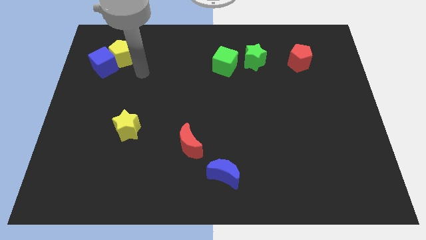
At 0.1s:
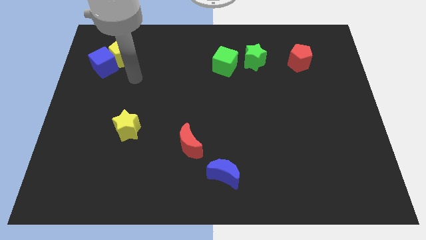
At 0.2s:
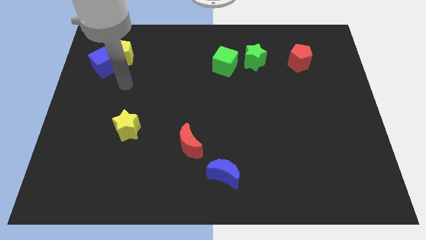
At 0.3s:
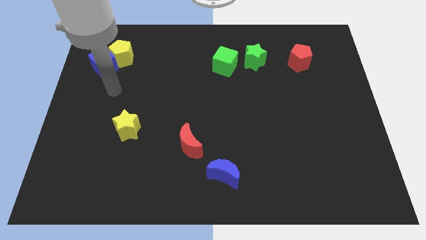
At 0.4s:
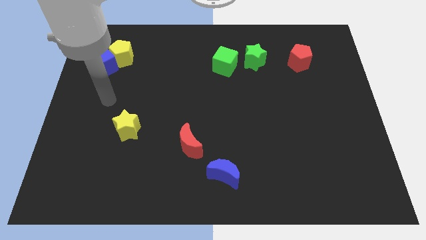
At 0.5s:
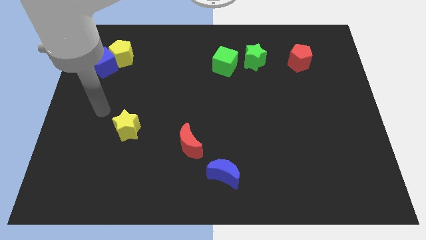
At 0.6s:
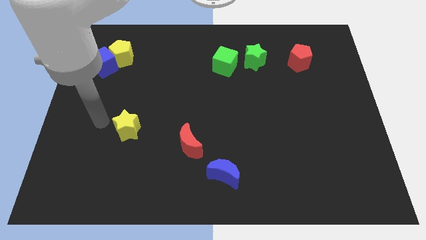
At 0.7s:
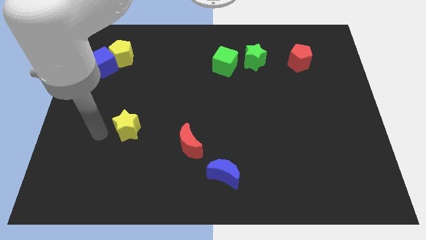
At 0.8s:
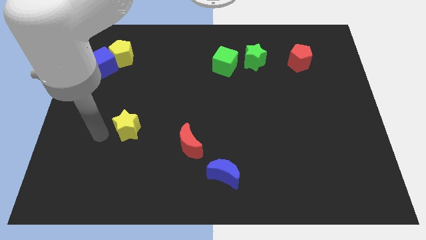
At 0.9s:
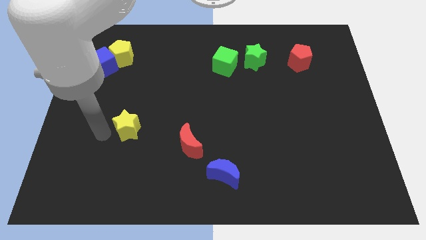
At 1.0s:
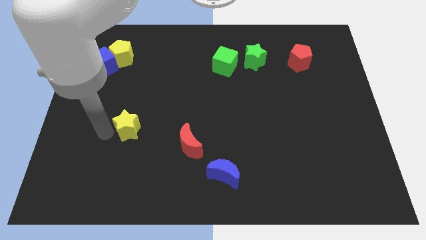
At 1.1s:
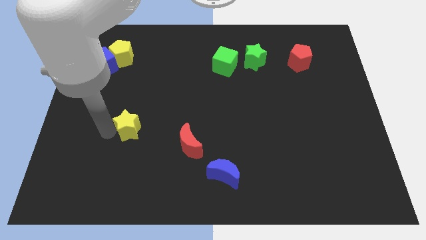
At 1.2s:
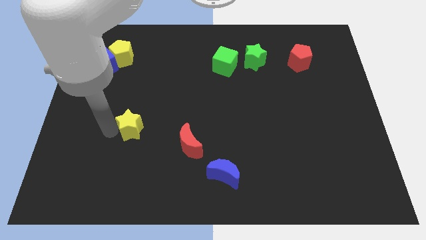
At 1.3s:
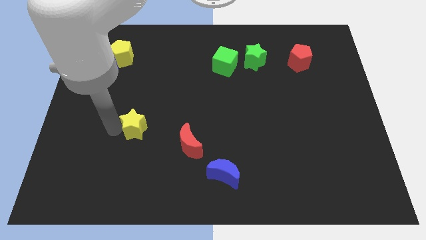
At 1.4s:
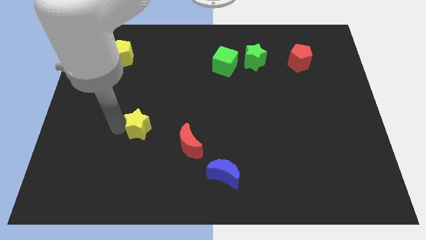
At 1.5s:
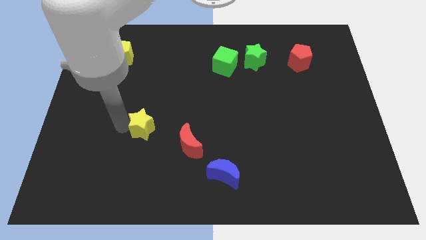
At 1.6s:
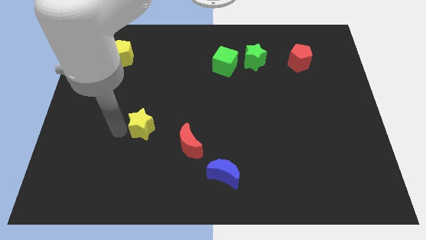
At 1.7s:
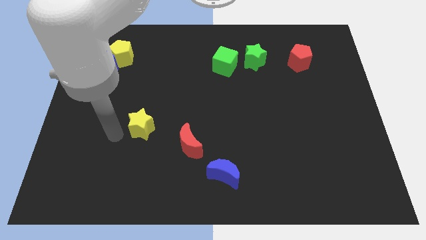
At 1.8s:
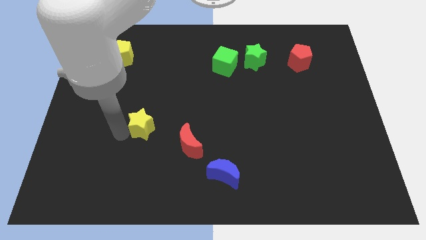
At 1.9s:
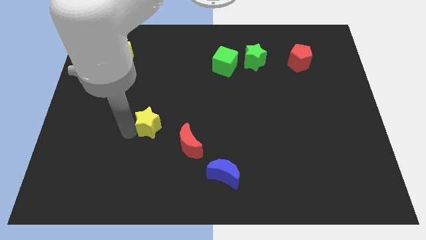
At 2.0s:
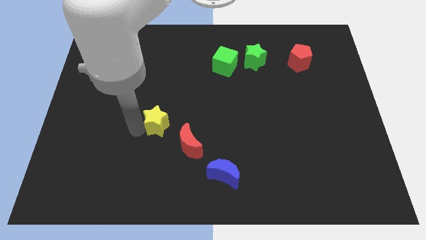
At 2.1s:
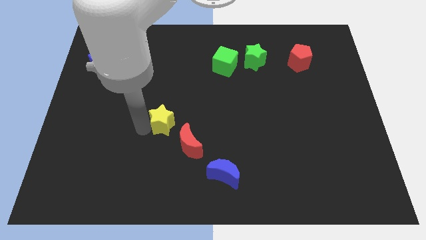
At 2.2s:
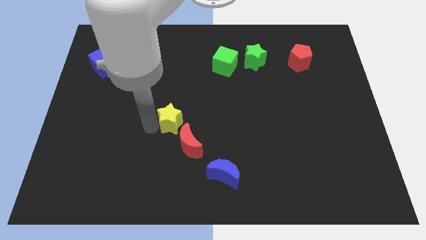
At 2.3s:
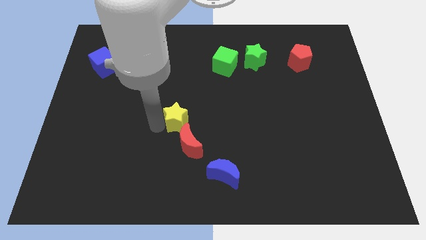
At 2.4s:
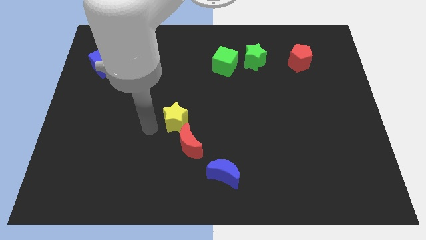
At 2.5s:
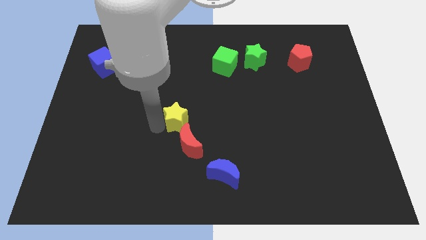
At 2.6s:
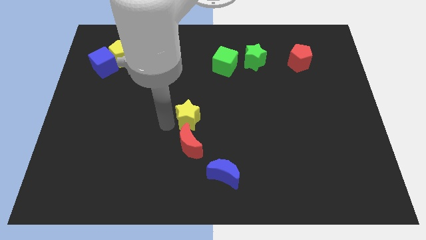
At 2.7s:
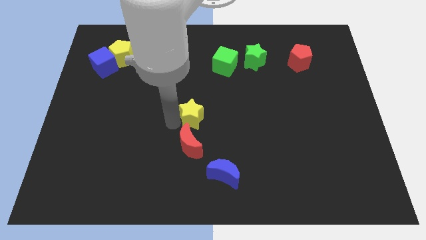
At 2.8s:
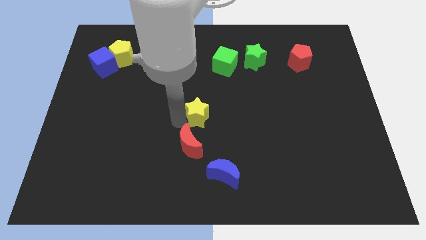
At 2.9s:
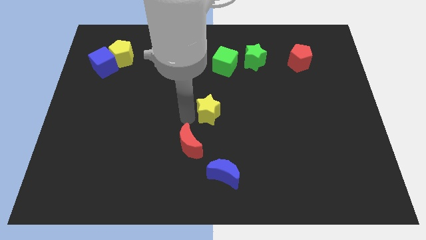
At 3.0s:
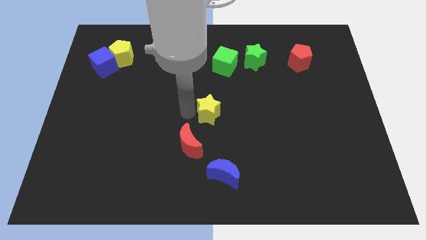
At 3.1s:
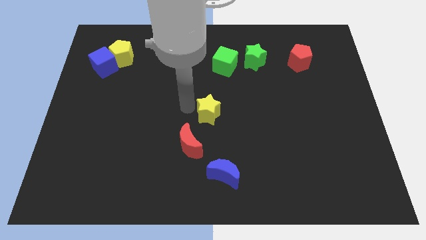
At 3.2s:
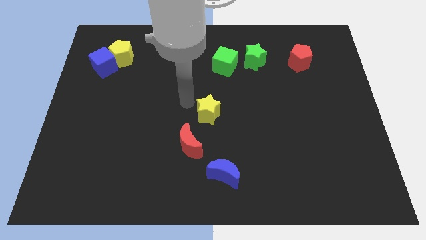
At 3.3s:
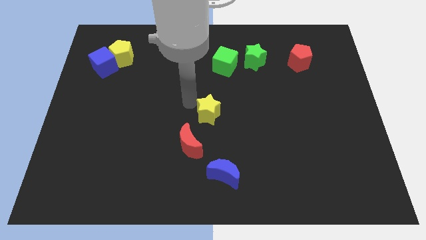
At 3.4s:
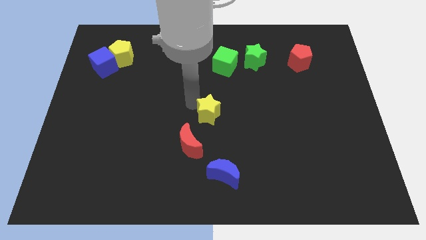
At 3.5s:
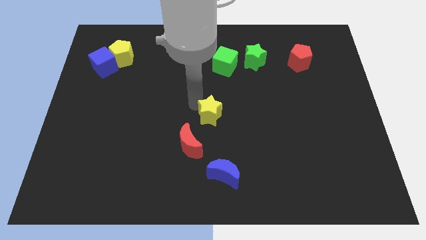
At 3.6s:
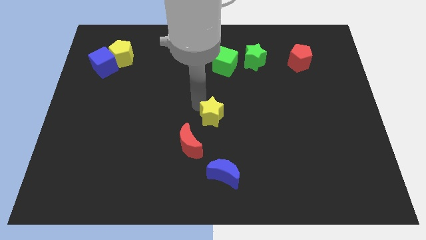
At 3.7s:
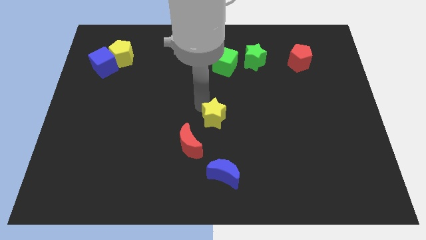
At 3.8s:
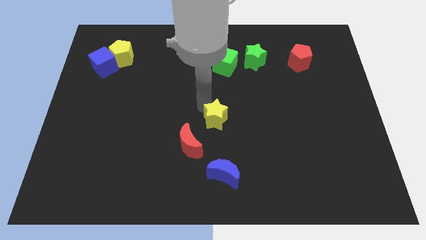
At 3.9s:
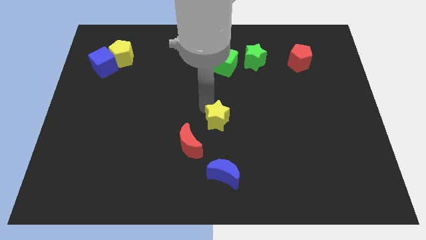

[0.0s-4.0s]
slide the yellow star to the right

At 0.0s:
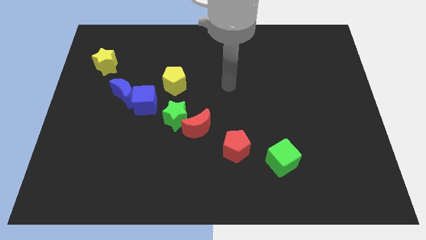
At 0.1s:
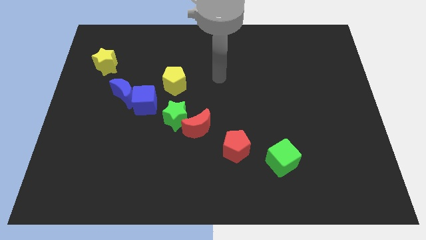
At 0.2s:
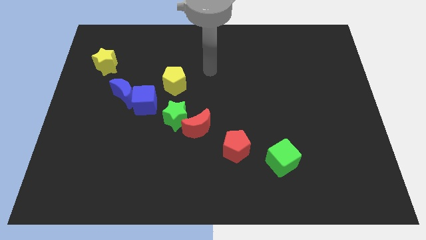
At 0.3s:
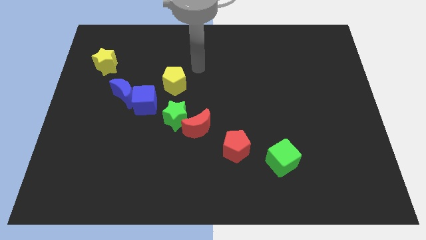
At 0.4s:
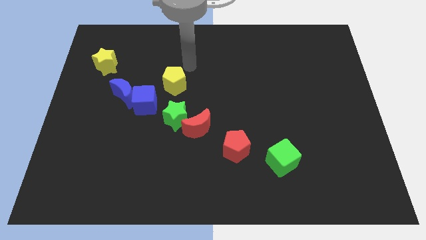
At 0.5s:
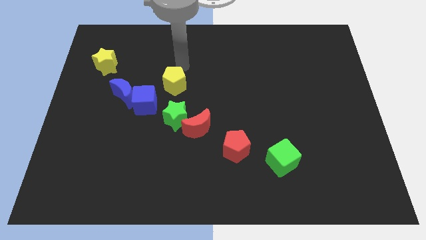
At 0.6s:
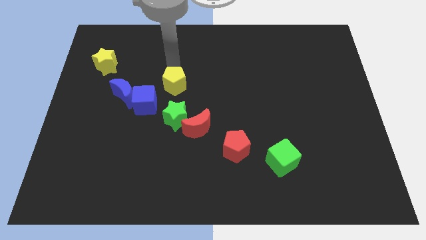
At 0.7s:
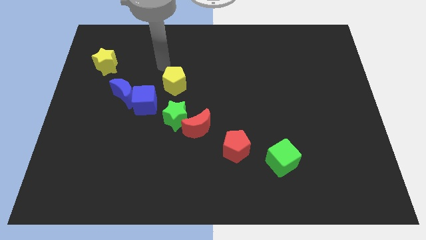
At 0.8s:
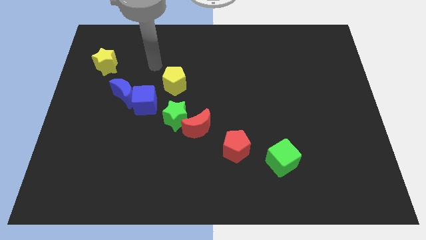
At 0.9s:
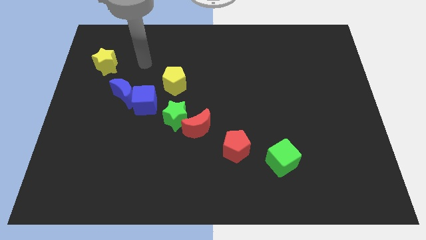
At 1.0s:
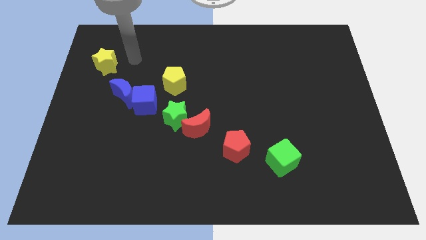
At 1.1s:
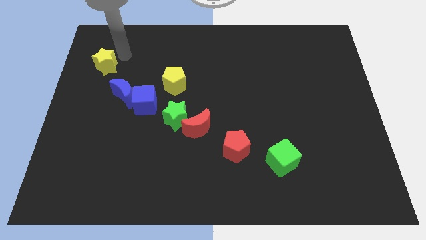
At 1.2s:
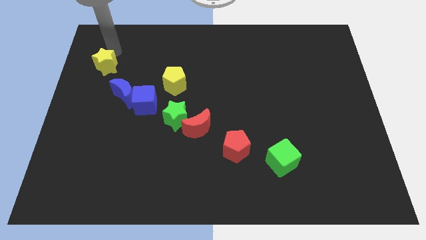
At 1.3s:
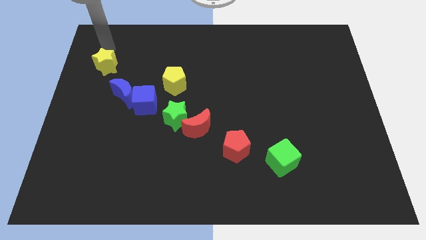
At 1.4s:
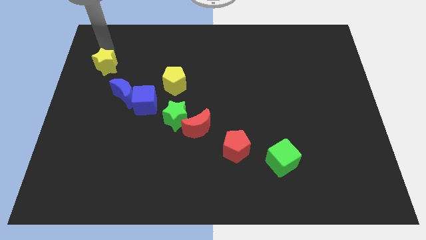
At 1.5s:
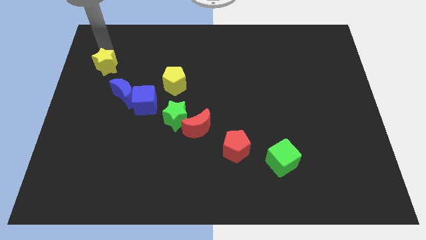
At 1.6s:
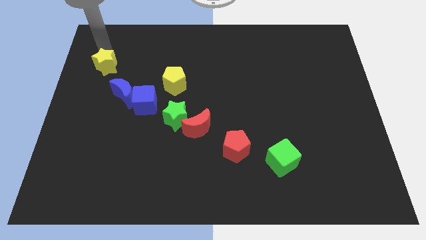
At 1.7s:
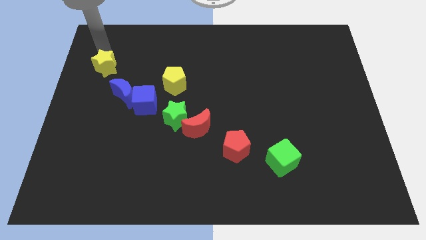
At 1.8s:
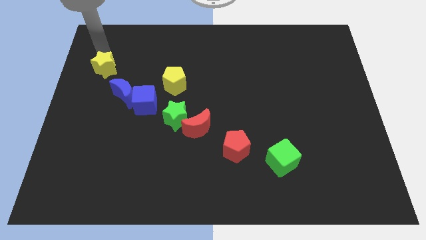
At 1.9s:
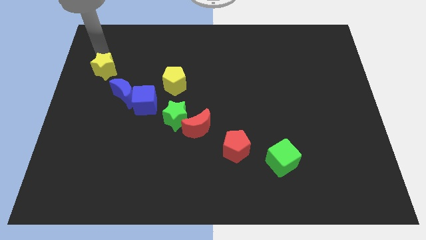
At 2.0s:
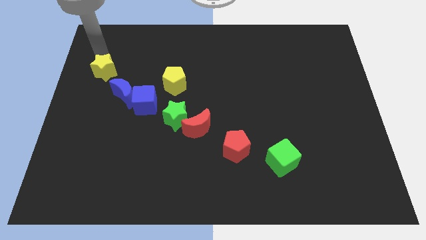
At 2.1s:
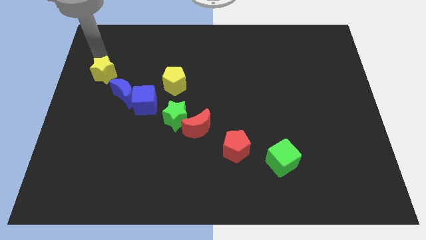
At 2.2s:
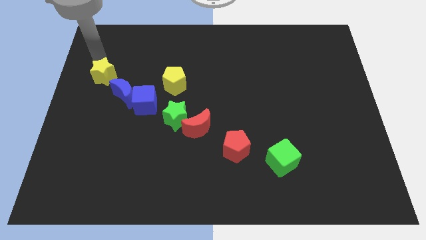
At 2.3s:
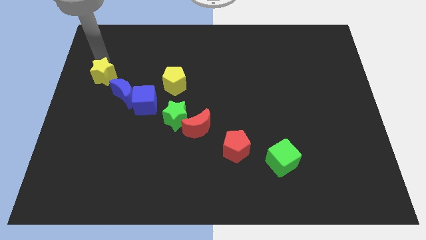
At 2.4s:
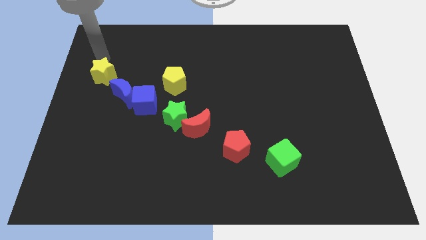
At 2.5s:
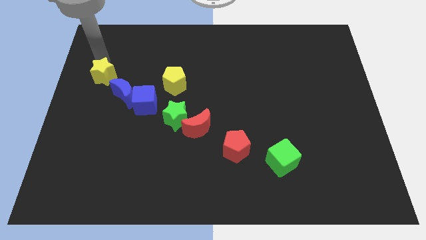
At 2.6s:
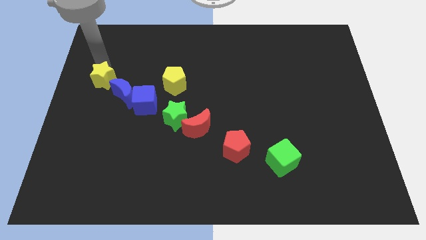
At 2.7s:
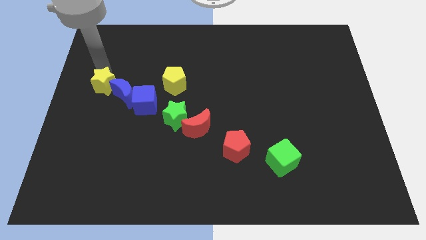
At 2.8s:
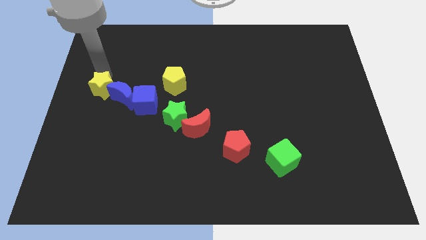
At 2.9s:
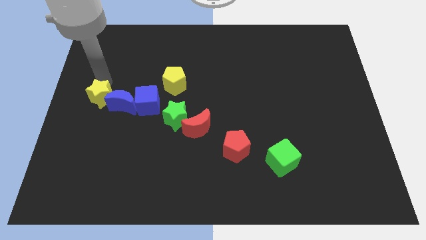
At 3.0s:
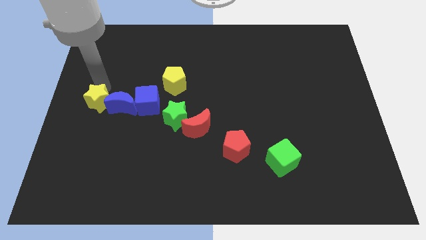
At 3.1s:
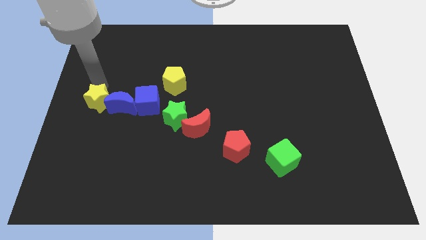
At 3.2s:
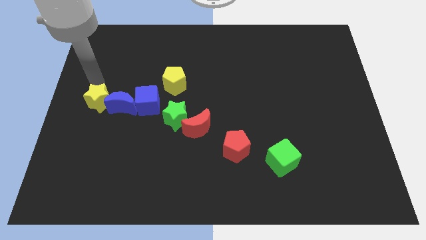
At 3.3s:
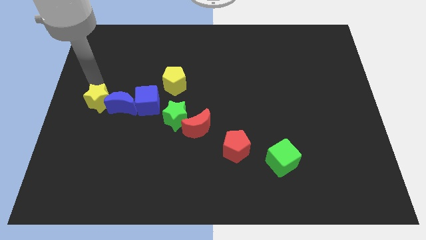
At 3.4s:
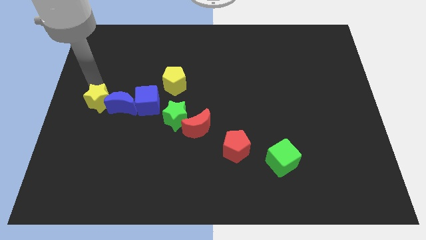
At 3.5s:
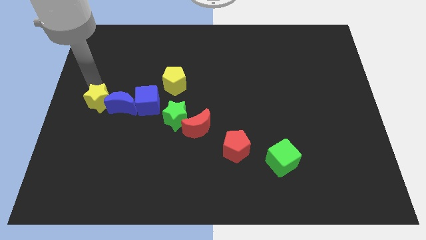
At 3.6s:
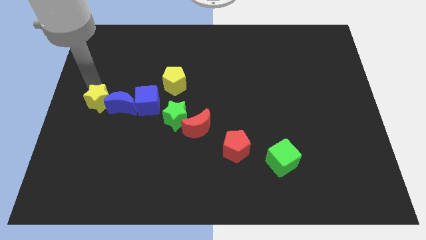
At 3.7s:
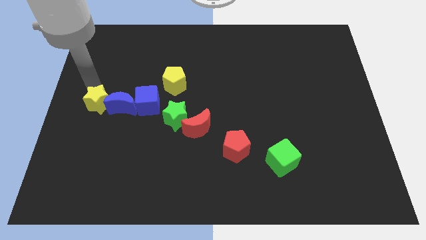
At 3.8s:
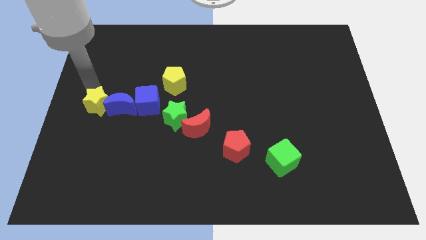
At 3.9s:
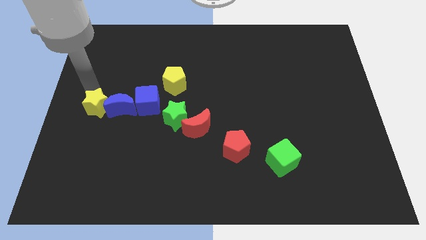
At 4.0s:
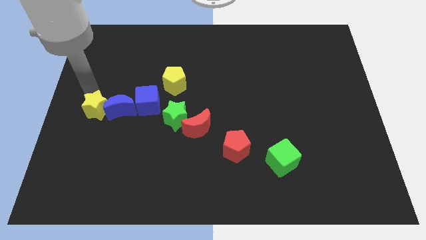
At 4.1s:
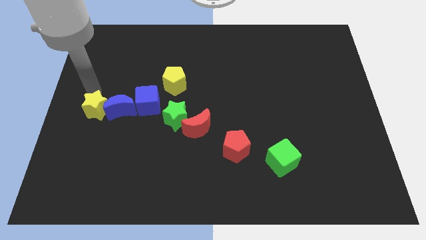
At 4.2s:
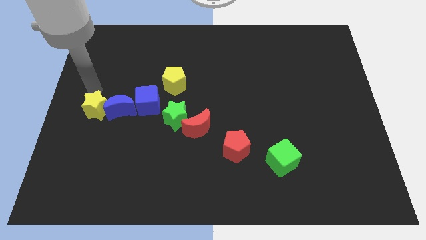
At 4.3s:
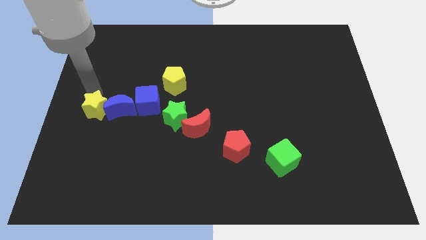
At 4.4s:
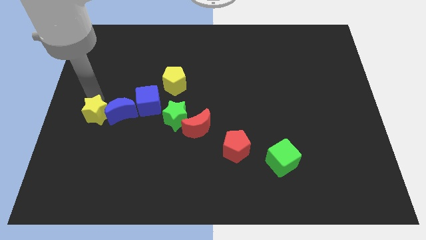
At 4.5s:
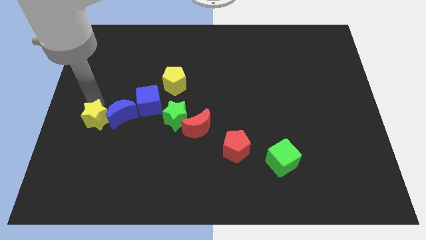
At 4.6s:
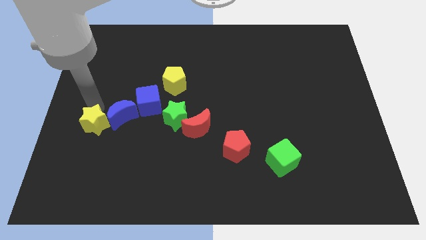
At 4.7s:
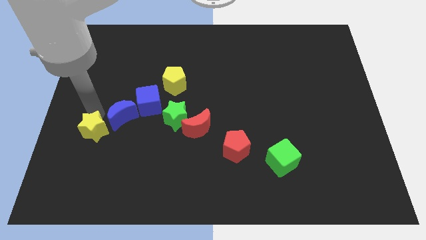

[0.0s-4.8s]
move the yellow star downwards
